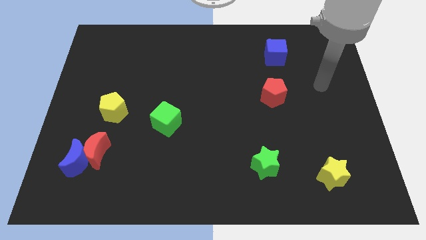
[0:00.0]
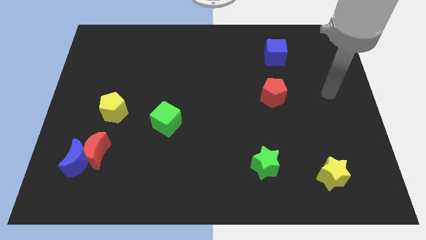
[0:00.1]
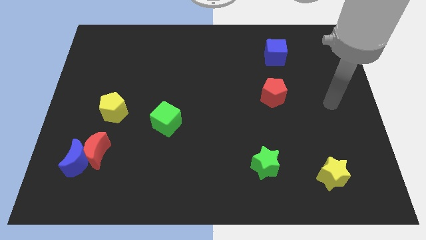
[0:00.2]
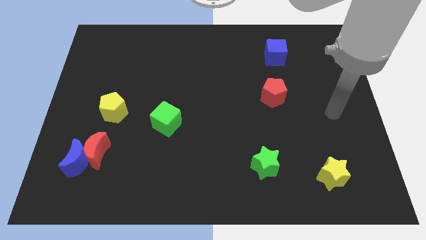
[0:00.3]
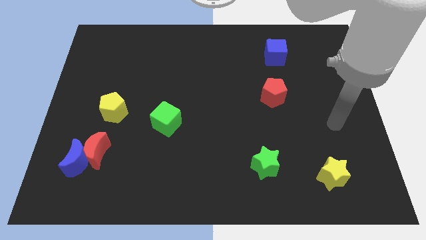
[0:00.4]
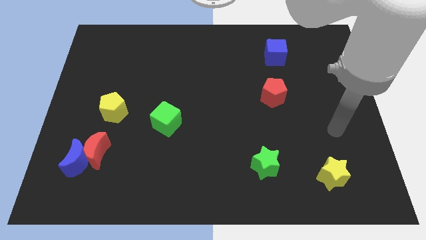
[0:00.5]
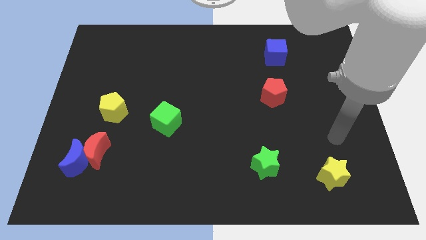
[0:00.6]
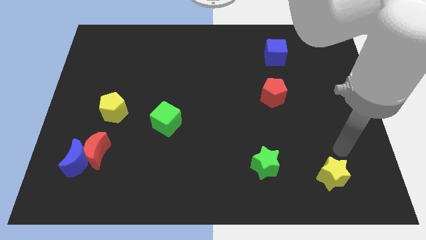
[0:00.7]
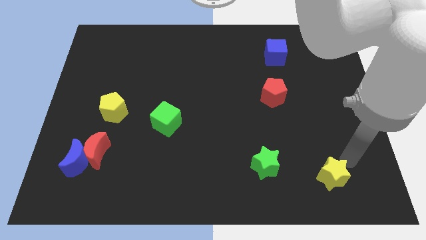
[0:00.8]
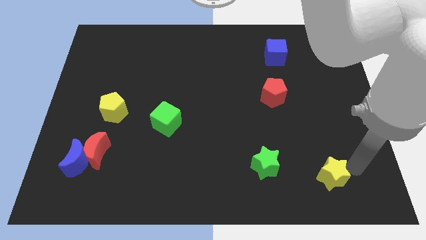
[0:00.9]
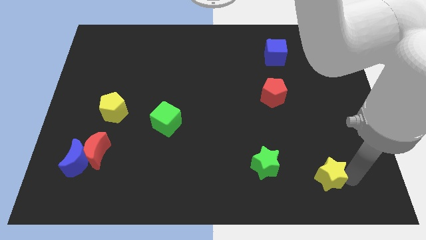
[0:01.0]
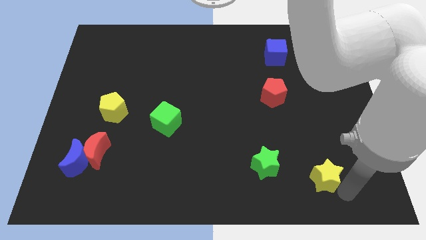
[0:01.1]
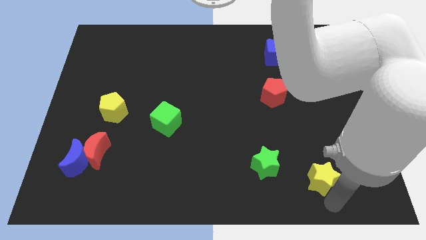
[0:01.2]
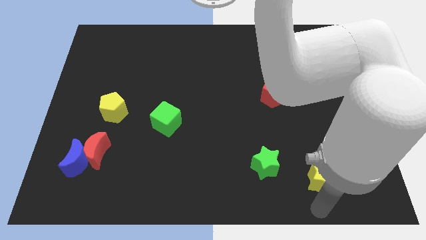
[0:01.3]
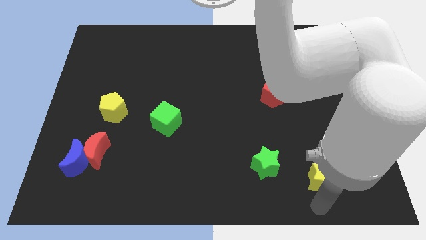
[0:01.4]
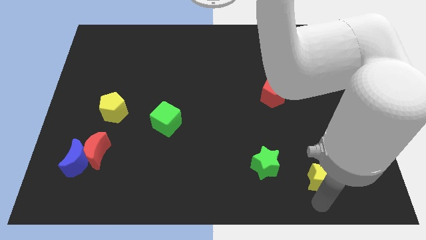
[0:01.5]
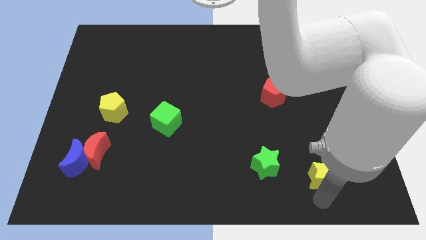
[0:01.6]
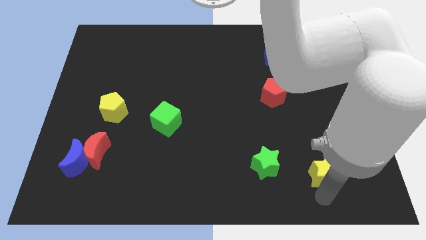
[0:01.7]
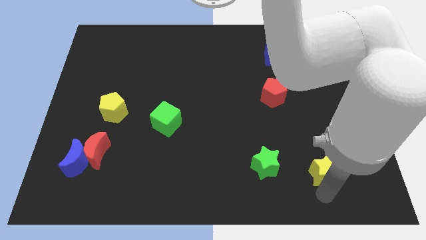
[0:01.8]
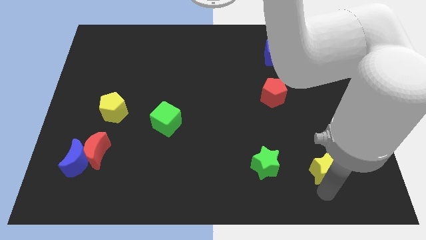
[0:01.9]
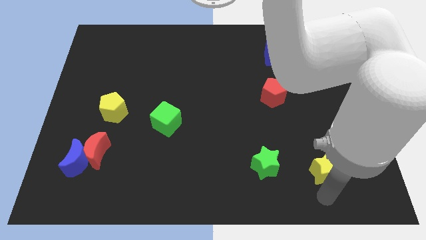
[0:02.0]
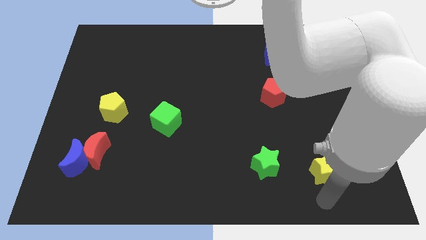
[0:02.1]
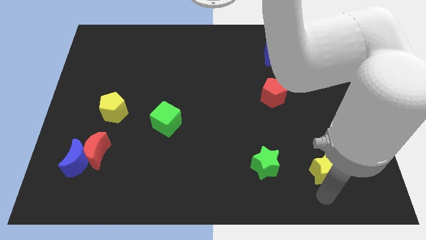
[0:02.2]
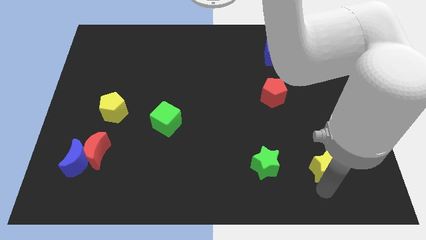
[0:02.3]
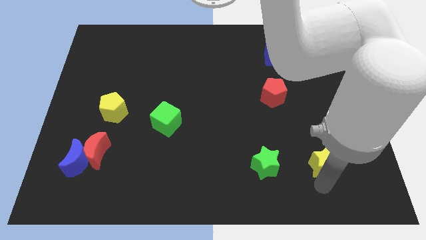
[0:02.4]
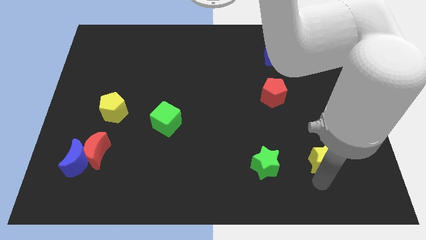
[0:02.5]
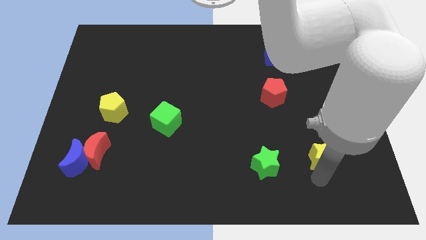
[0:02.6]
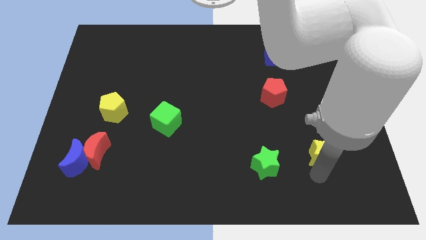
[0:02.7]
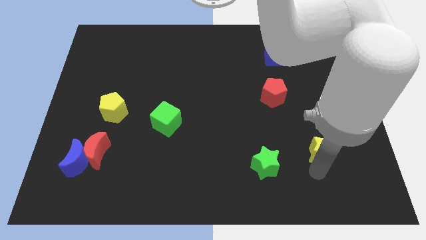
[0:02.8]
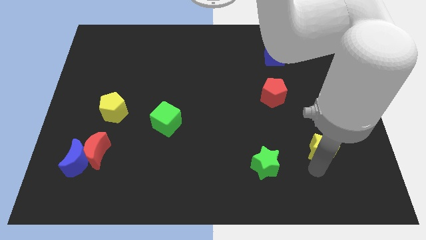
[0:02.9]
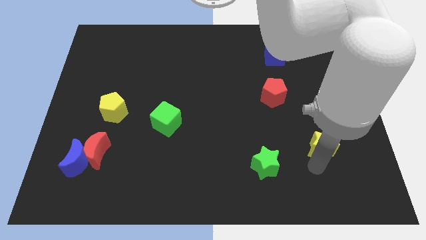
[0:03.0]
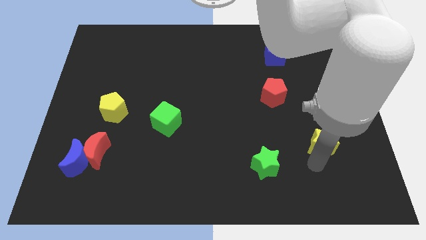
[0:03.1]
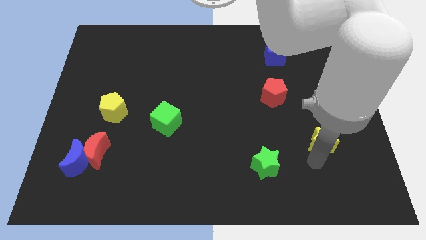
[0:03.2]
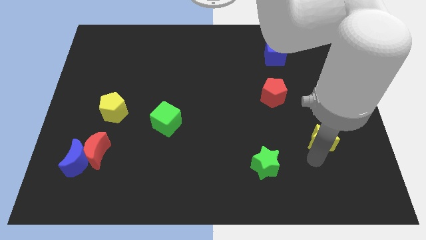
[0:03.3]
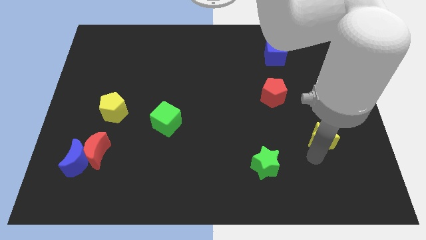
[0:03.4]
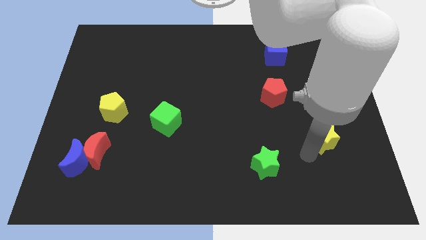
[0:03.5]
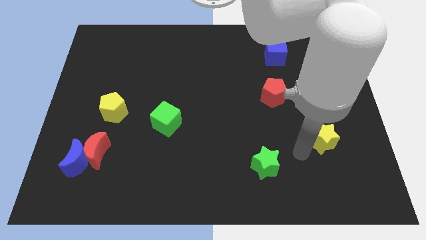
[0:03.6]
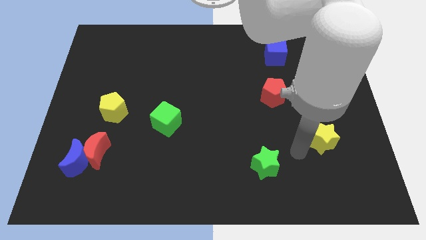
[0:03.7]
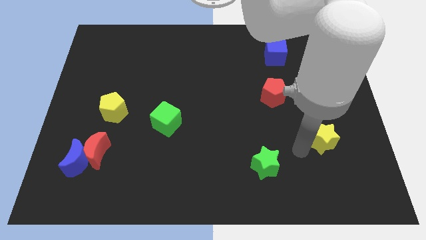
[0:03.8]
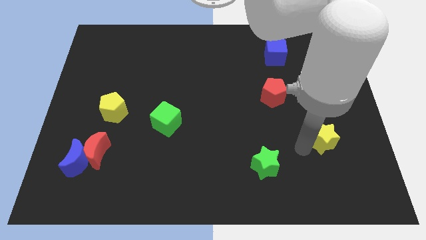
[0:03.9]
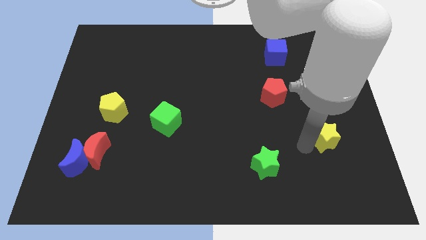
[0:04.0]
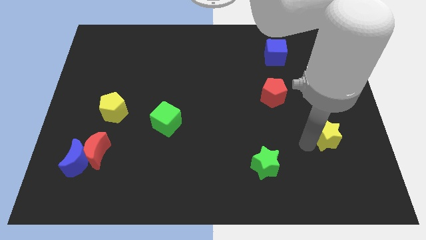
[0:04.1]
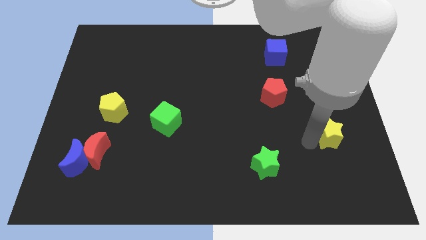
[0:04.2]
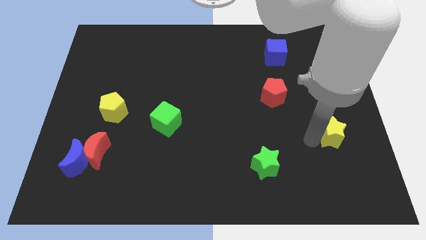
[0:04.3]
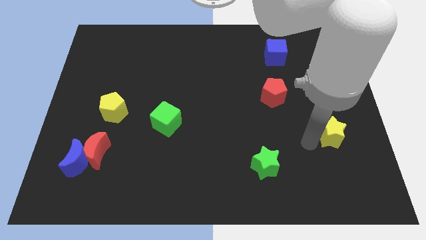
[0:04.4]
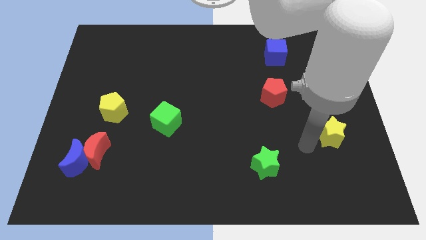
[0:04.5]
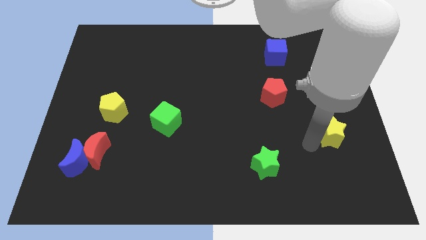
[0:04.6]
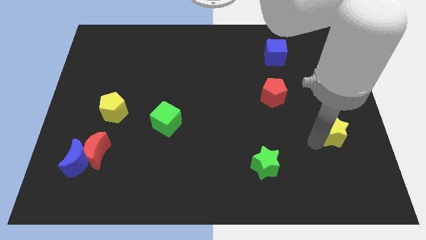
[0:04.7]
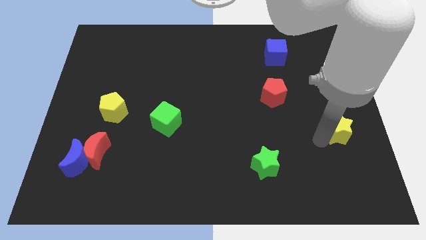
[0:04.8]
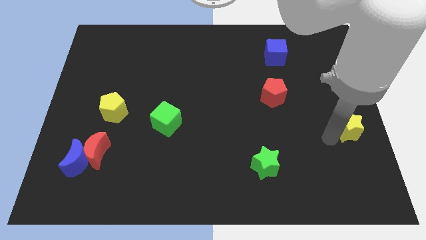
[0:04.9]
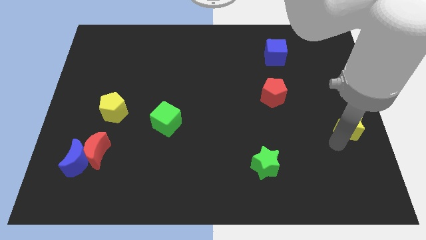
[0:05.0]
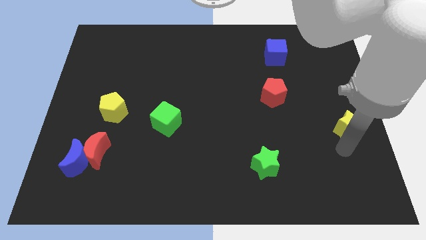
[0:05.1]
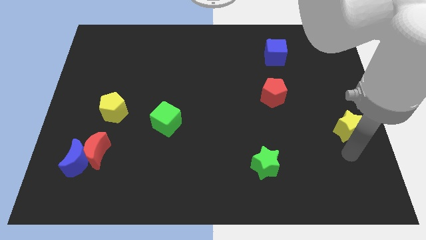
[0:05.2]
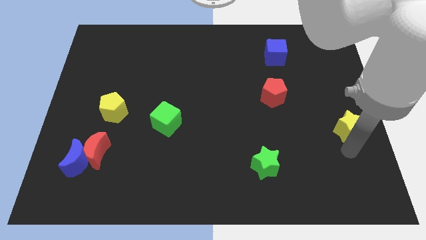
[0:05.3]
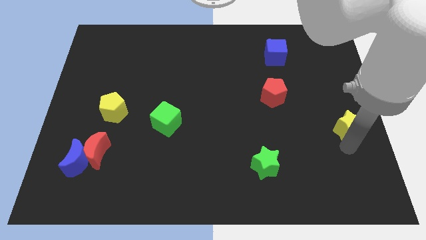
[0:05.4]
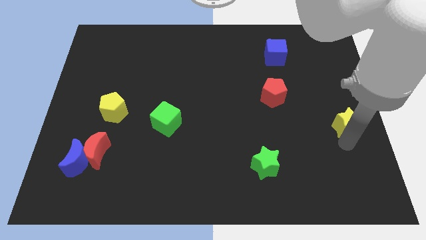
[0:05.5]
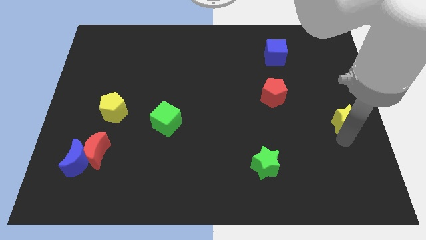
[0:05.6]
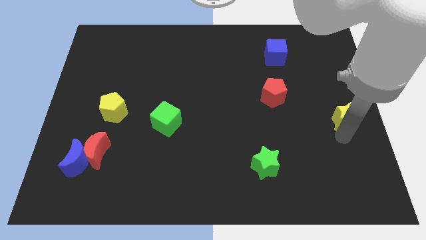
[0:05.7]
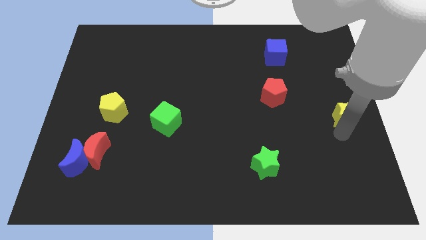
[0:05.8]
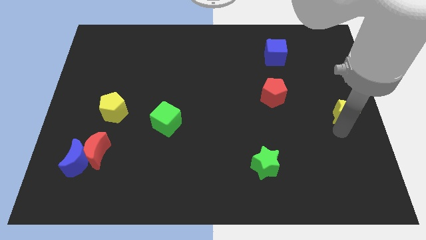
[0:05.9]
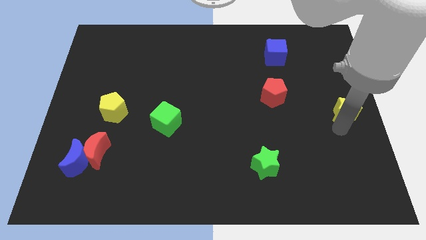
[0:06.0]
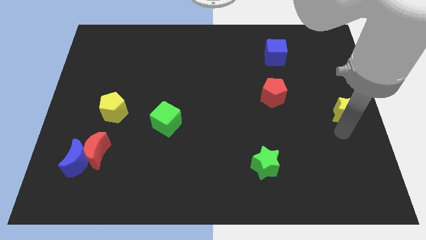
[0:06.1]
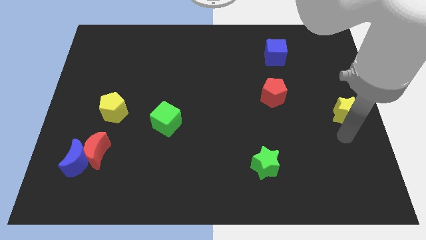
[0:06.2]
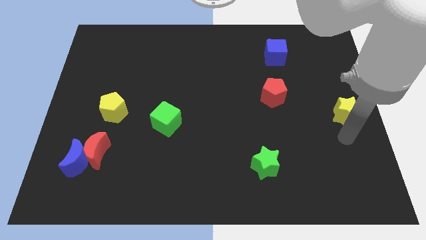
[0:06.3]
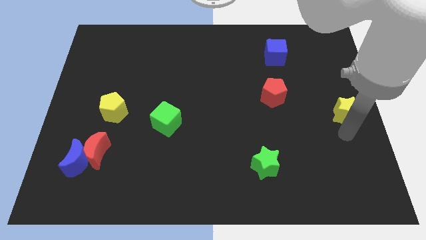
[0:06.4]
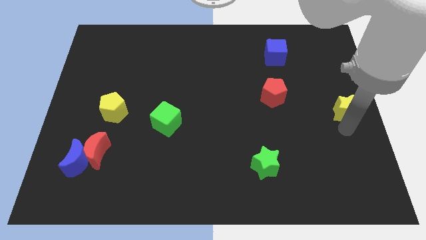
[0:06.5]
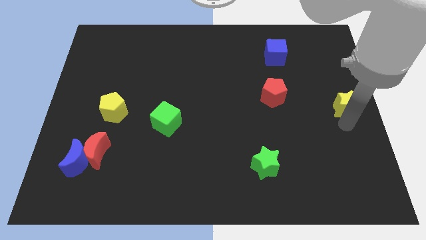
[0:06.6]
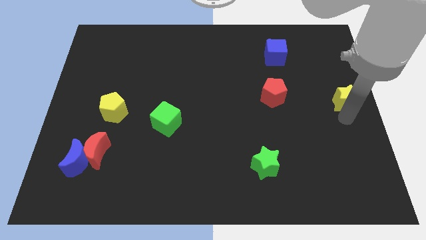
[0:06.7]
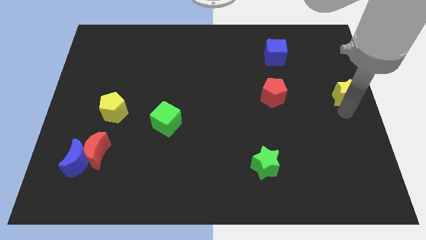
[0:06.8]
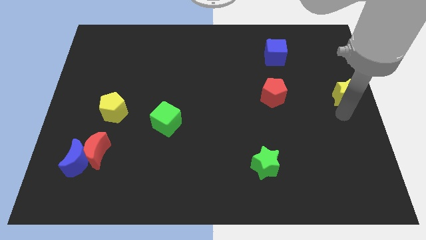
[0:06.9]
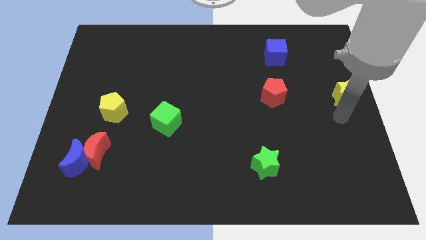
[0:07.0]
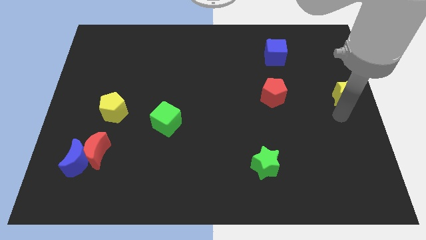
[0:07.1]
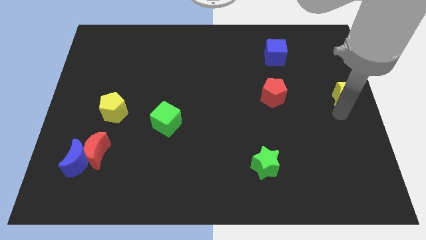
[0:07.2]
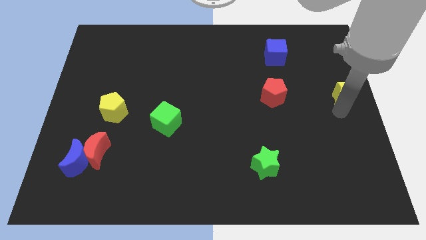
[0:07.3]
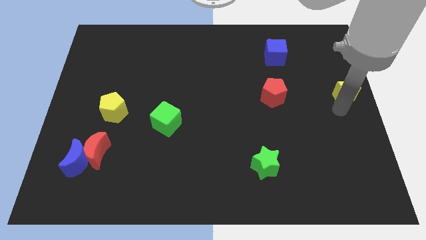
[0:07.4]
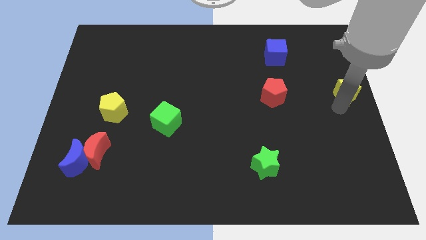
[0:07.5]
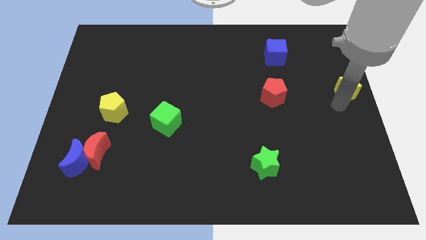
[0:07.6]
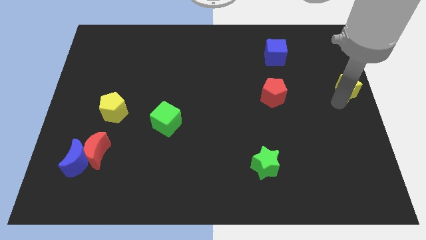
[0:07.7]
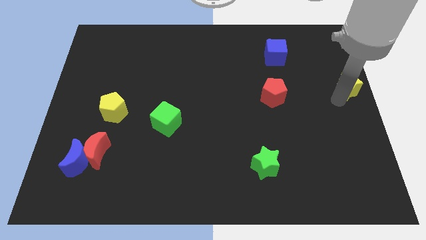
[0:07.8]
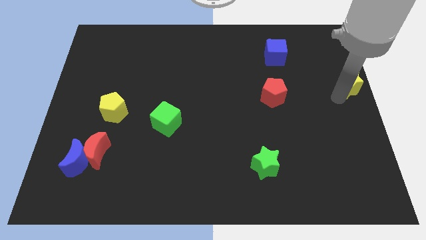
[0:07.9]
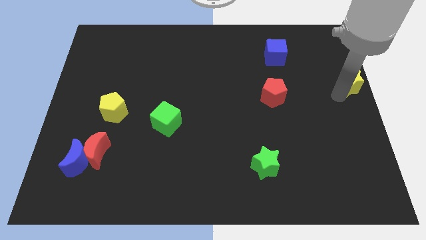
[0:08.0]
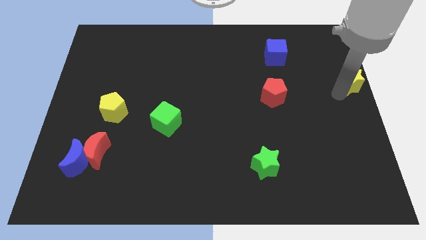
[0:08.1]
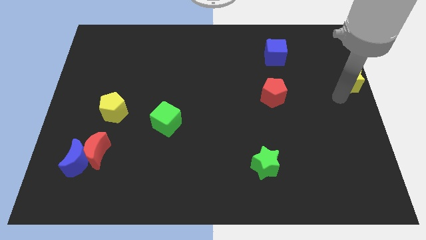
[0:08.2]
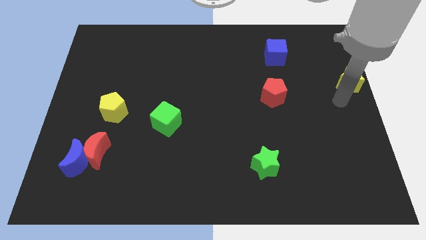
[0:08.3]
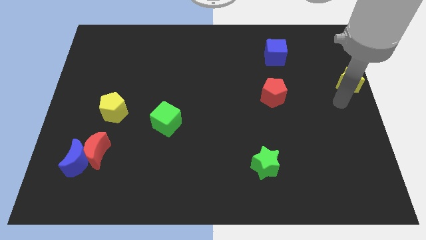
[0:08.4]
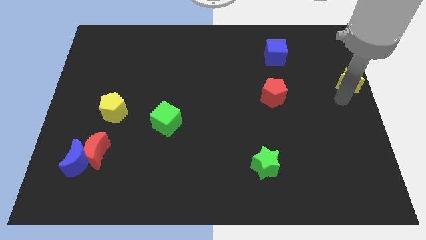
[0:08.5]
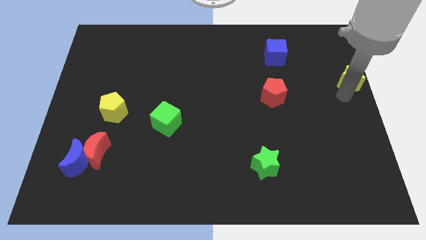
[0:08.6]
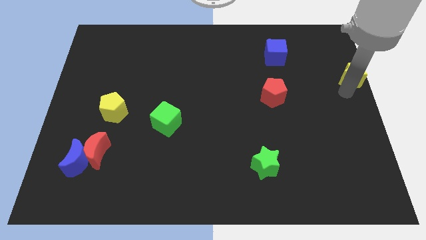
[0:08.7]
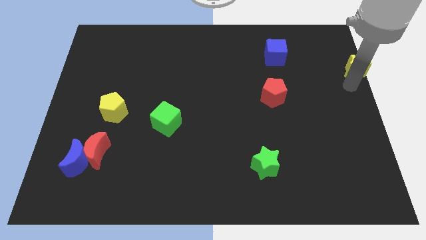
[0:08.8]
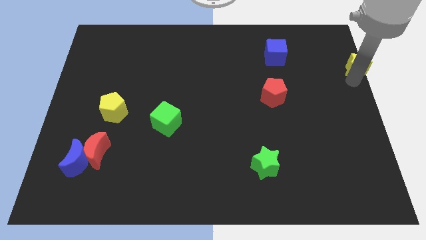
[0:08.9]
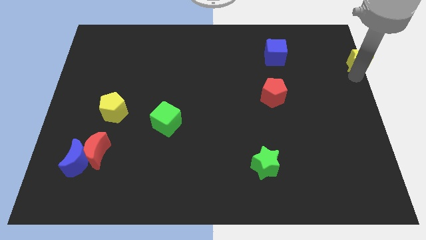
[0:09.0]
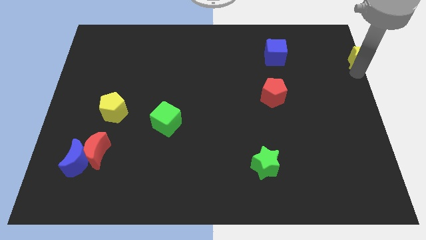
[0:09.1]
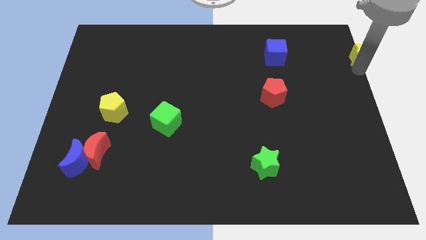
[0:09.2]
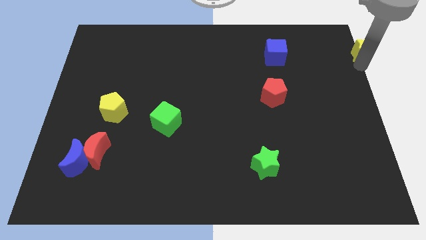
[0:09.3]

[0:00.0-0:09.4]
move the yellow star to the top right
